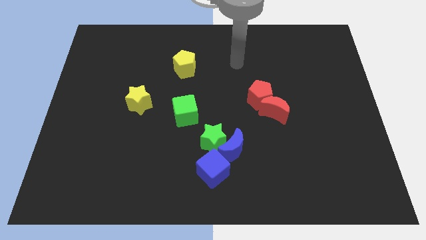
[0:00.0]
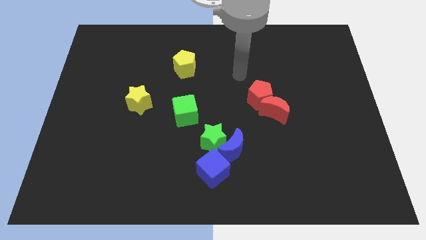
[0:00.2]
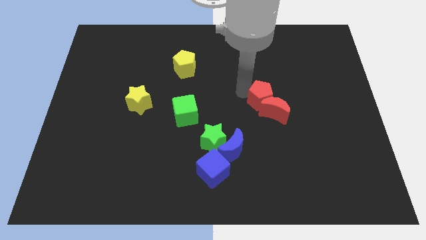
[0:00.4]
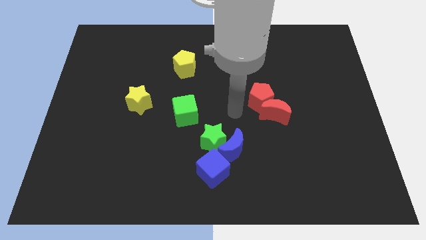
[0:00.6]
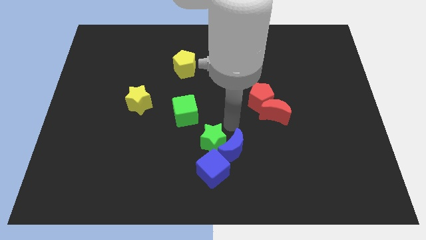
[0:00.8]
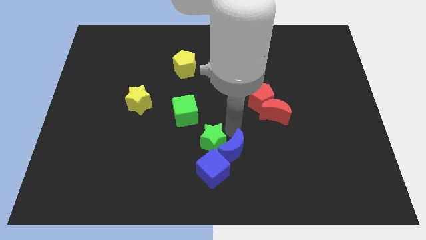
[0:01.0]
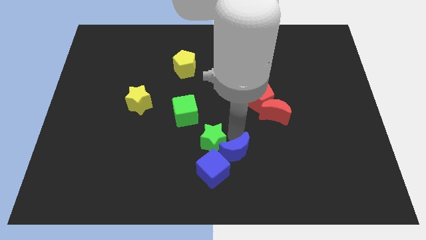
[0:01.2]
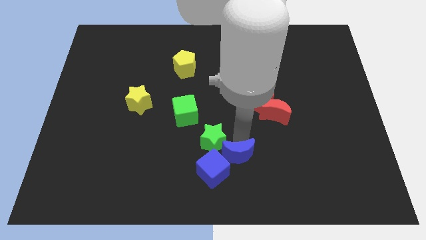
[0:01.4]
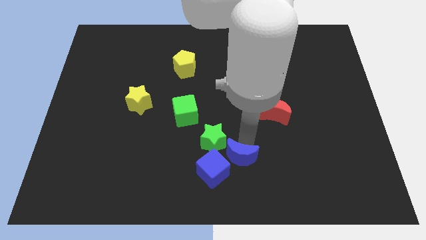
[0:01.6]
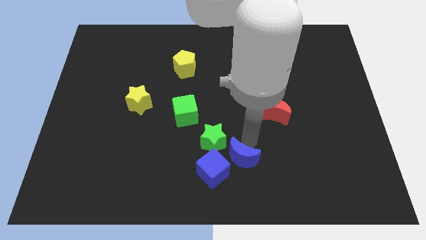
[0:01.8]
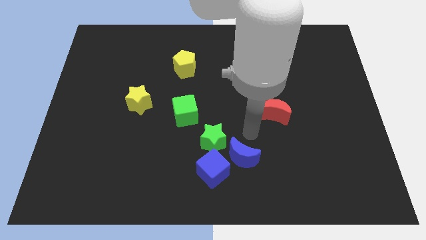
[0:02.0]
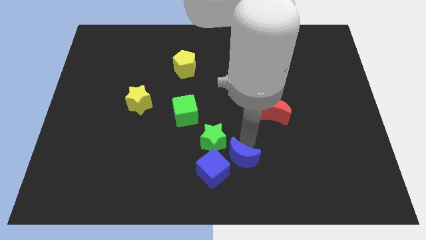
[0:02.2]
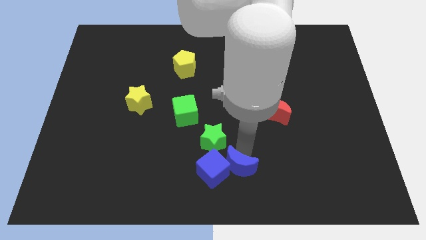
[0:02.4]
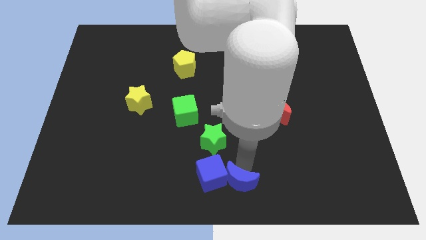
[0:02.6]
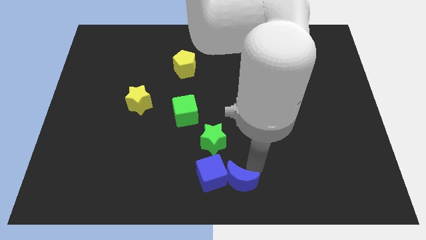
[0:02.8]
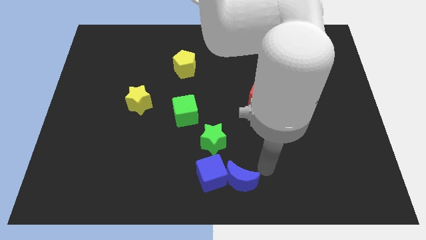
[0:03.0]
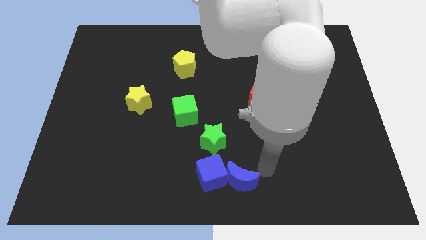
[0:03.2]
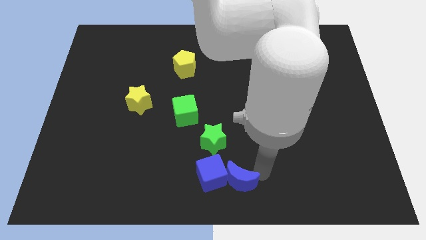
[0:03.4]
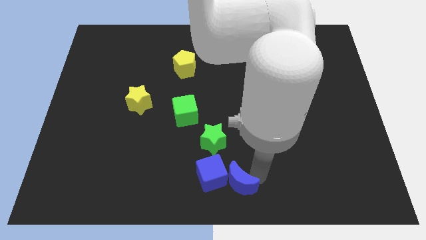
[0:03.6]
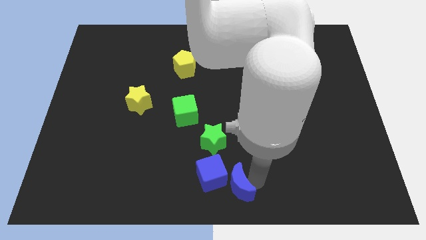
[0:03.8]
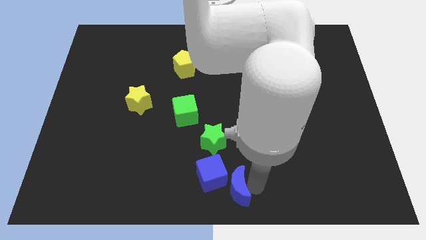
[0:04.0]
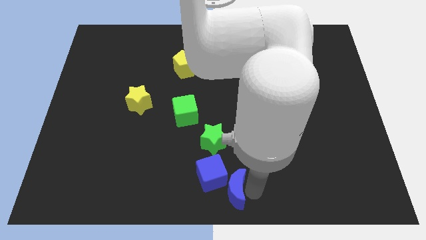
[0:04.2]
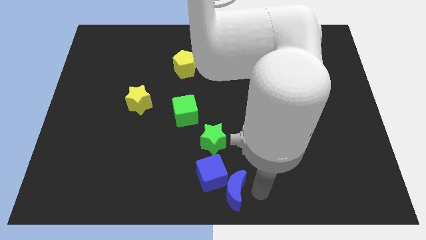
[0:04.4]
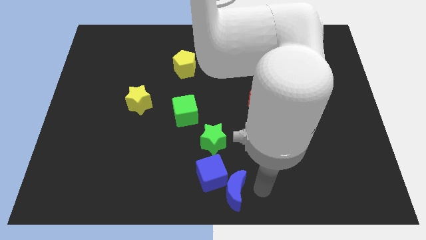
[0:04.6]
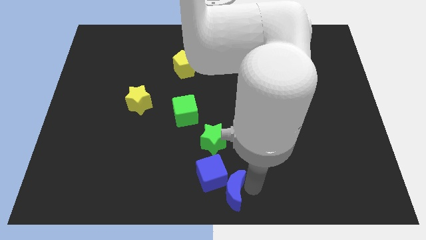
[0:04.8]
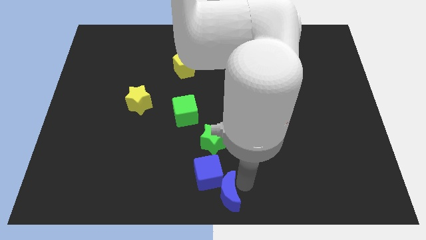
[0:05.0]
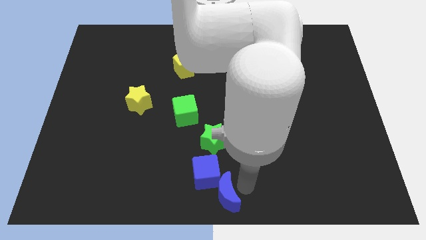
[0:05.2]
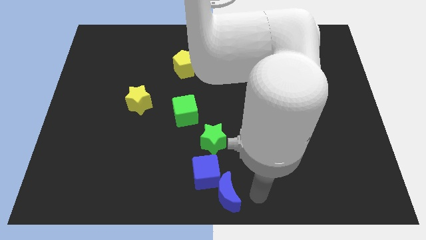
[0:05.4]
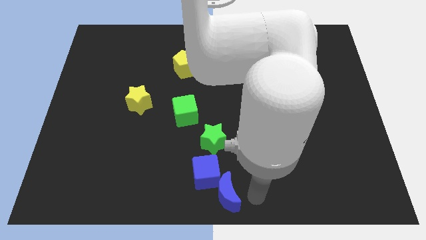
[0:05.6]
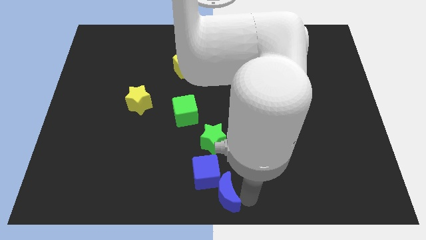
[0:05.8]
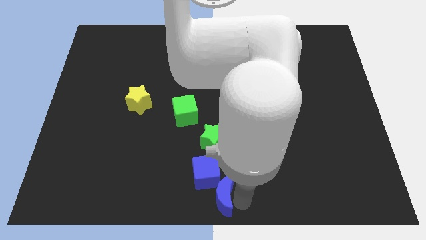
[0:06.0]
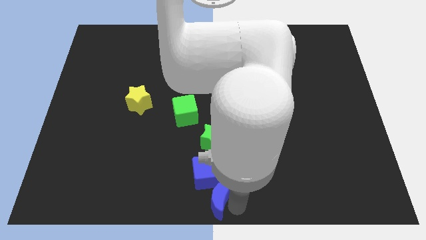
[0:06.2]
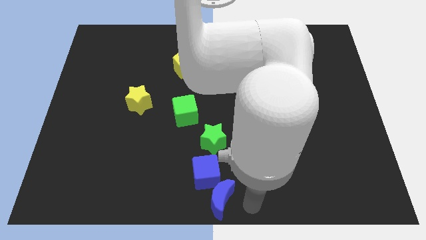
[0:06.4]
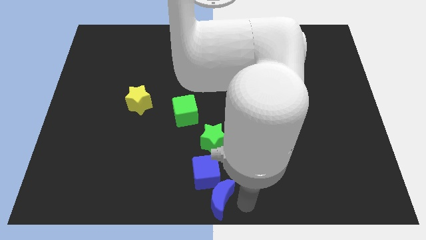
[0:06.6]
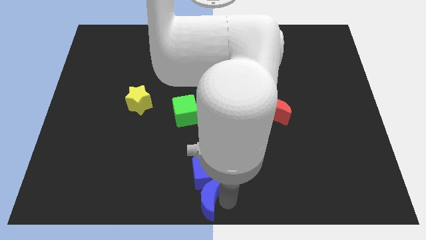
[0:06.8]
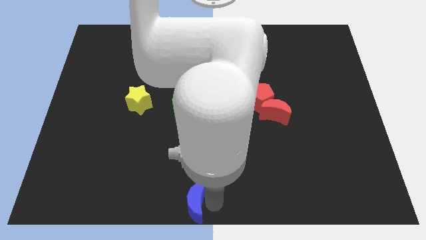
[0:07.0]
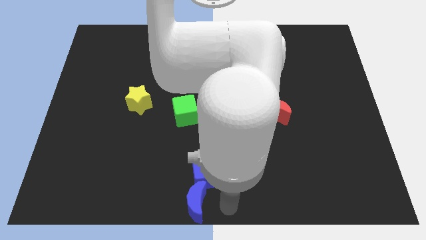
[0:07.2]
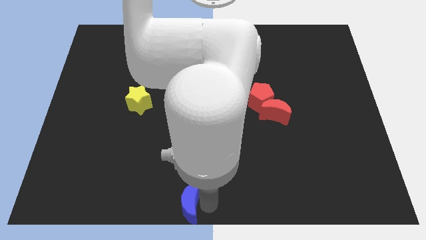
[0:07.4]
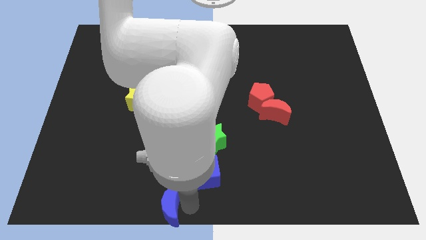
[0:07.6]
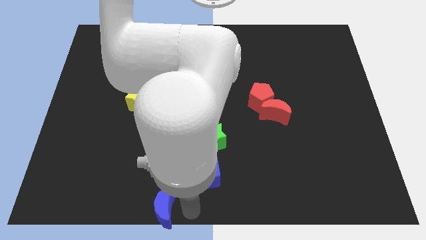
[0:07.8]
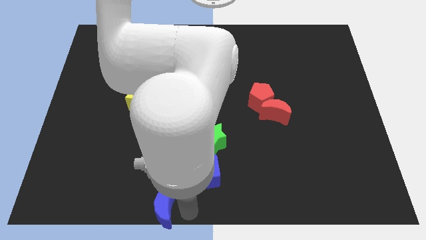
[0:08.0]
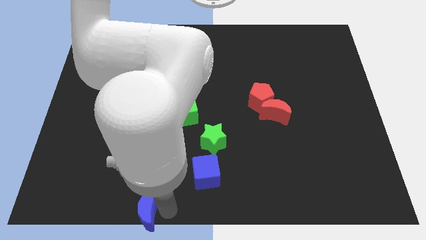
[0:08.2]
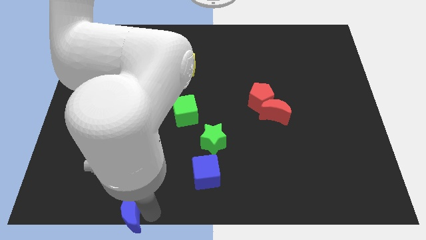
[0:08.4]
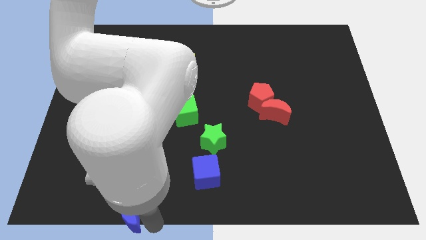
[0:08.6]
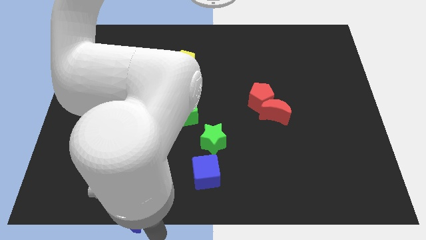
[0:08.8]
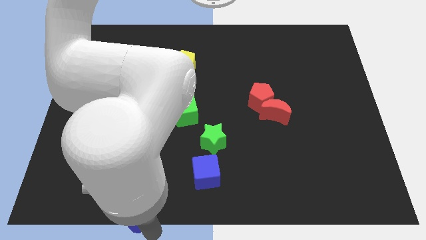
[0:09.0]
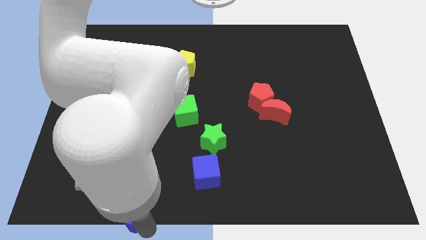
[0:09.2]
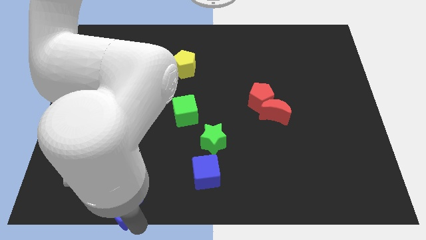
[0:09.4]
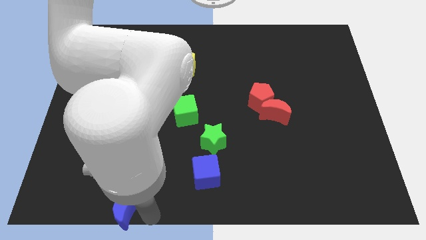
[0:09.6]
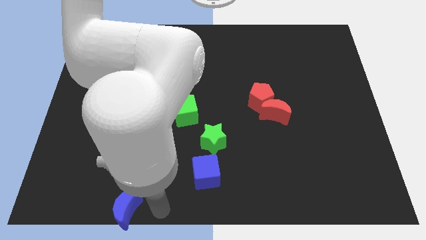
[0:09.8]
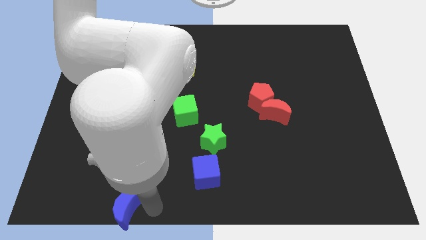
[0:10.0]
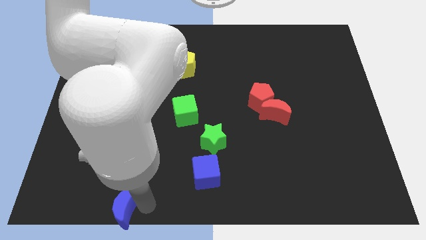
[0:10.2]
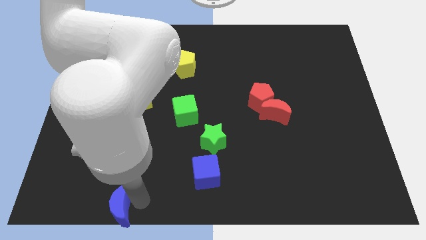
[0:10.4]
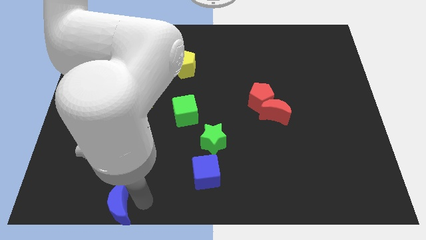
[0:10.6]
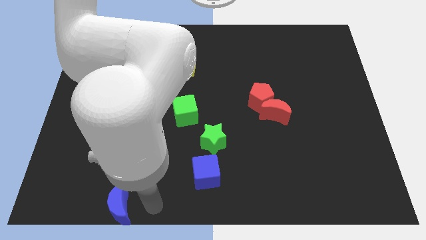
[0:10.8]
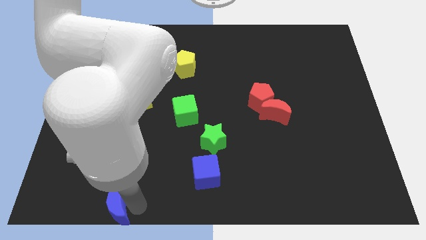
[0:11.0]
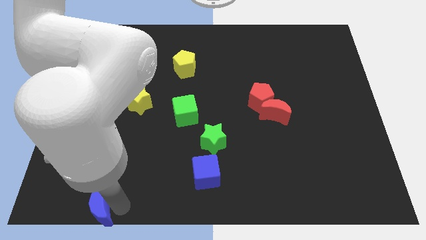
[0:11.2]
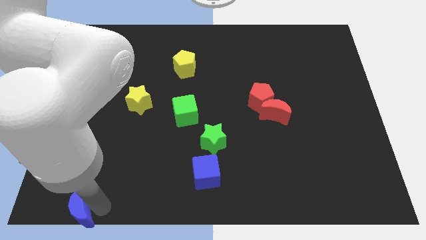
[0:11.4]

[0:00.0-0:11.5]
push the blue moon to the bottom left corner

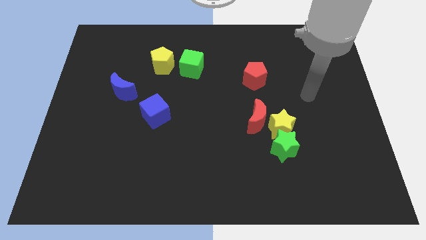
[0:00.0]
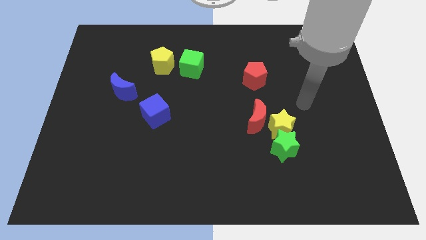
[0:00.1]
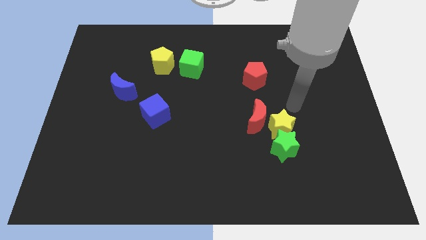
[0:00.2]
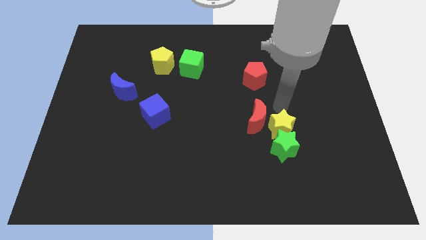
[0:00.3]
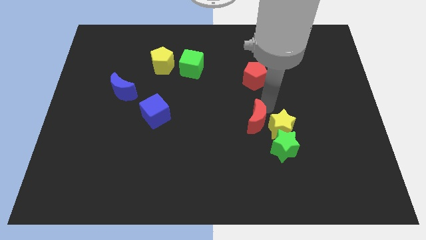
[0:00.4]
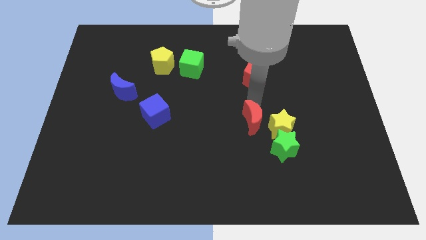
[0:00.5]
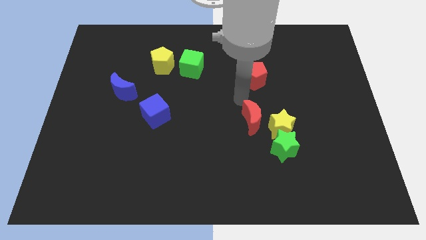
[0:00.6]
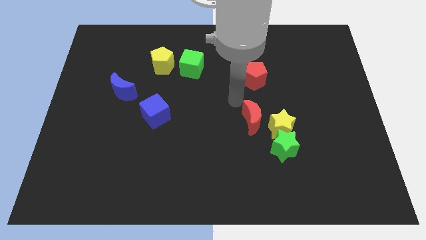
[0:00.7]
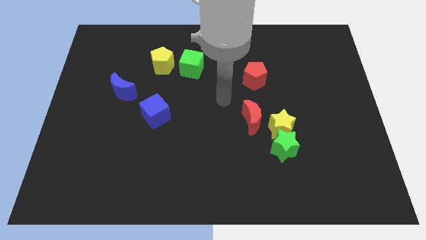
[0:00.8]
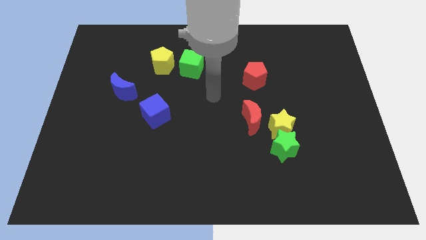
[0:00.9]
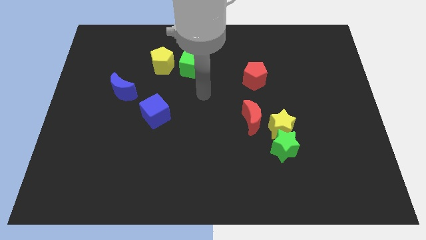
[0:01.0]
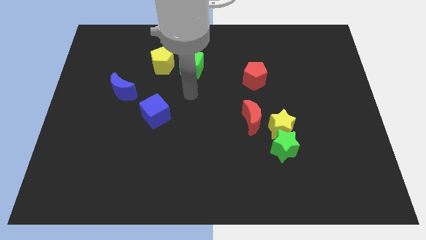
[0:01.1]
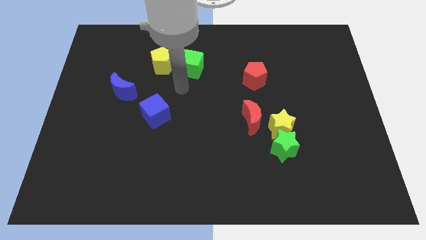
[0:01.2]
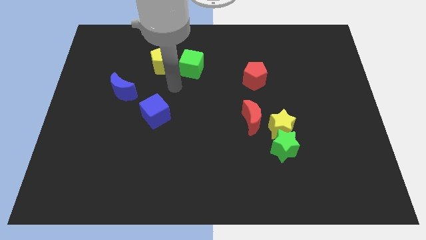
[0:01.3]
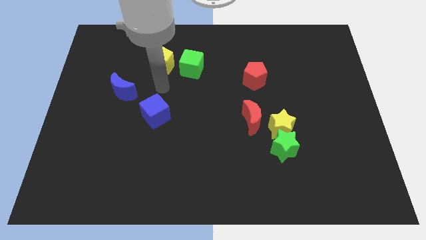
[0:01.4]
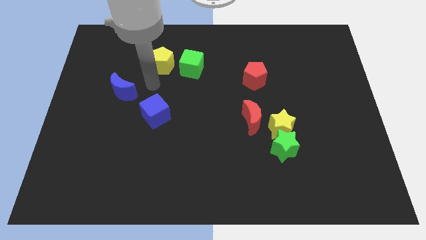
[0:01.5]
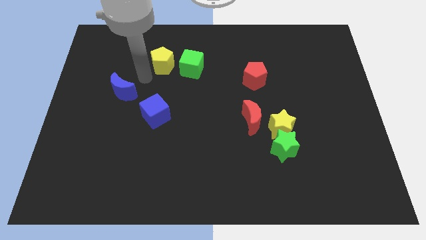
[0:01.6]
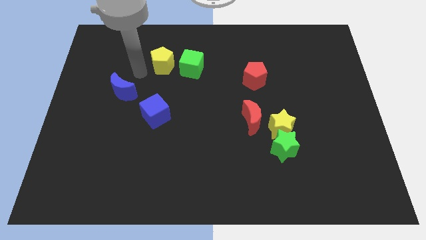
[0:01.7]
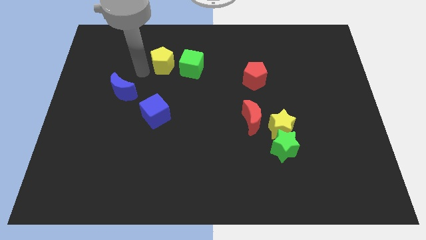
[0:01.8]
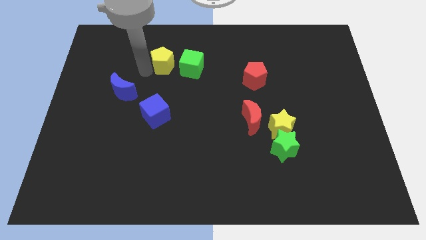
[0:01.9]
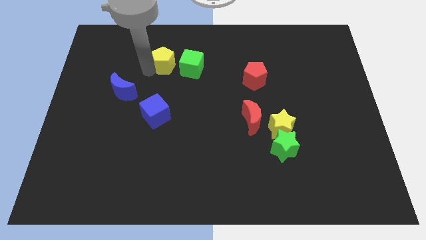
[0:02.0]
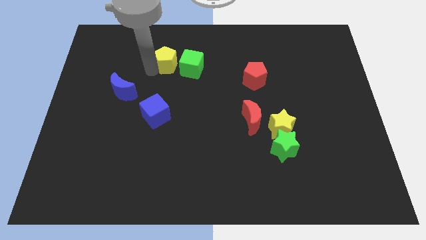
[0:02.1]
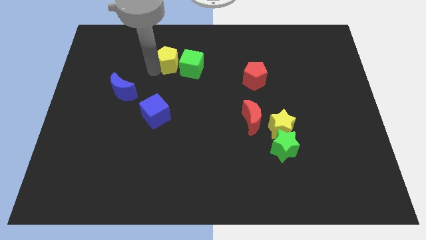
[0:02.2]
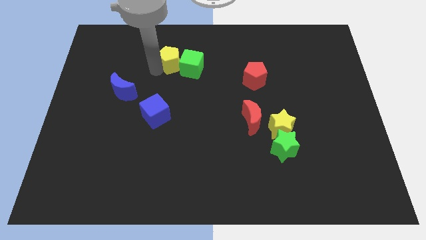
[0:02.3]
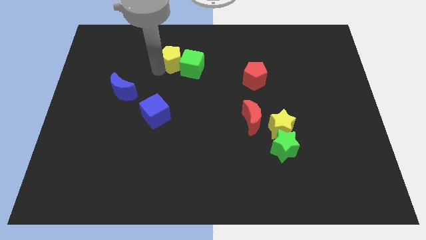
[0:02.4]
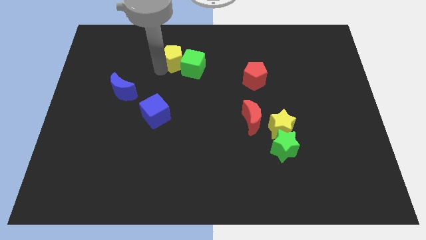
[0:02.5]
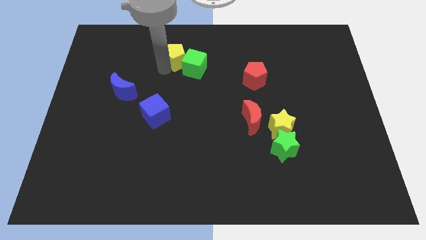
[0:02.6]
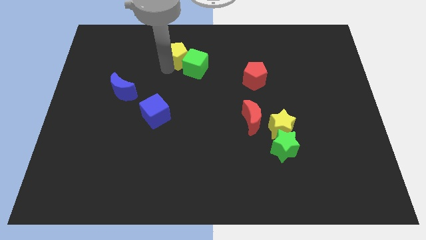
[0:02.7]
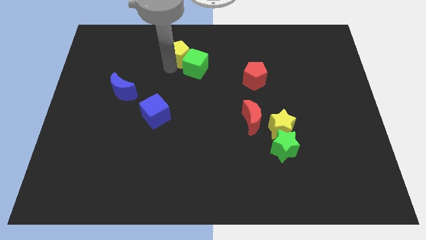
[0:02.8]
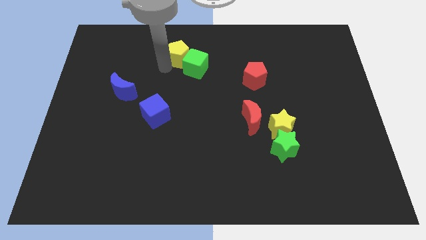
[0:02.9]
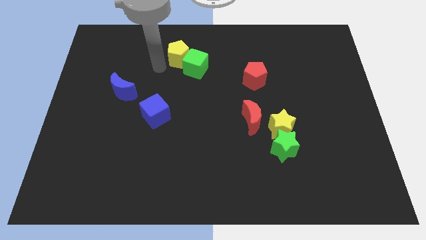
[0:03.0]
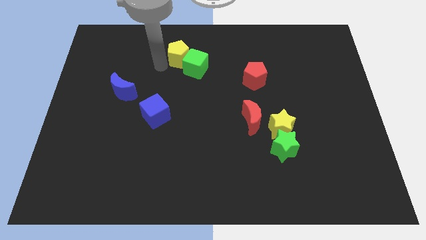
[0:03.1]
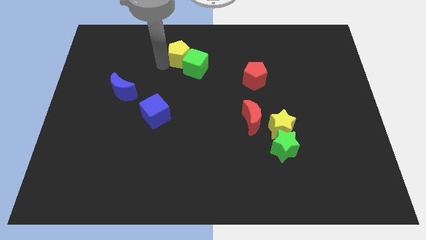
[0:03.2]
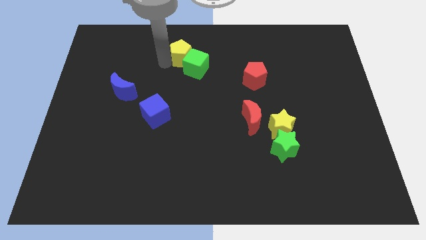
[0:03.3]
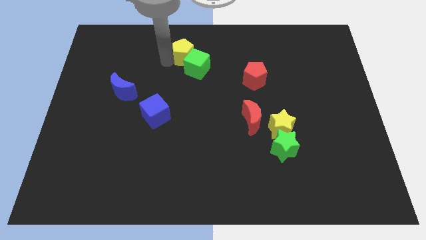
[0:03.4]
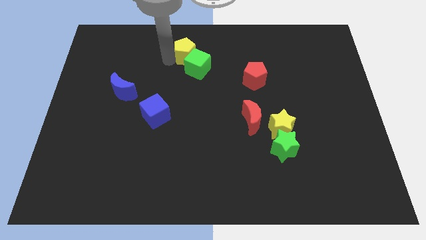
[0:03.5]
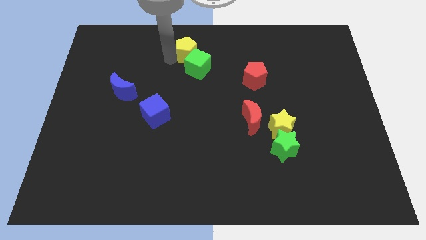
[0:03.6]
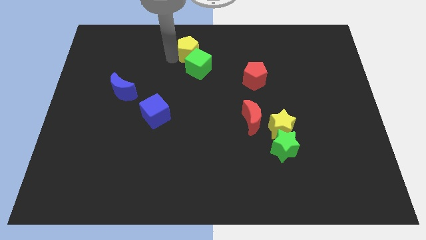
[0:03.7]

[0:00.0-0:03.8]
push the yellow pentagon to the top
